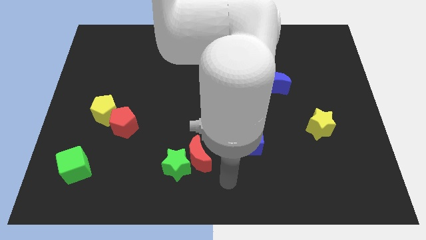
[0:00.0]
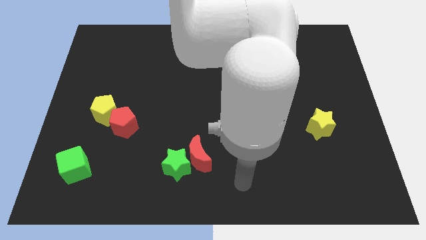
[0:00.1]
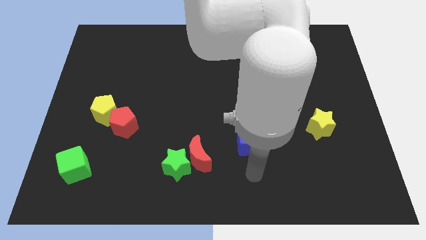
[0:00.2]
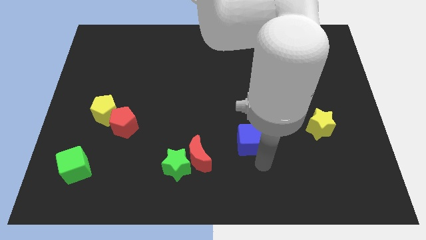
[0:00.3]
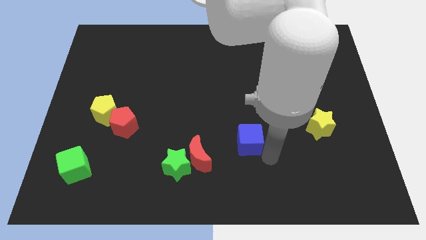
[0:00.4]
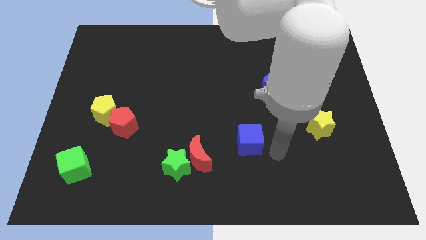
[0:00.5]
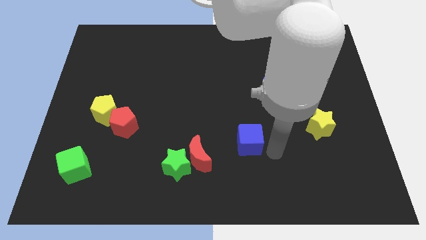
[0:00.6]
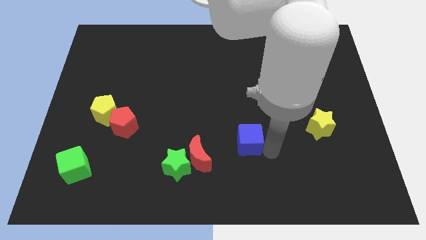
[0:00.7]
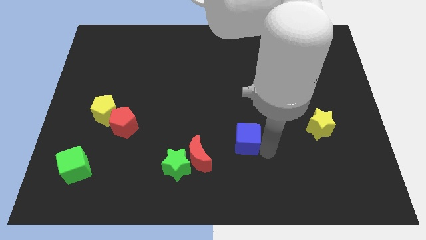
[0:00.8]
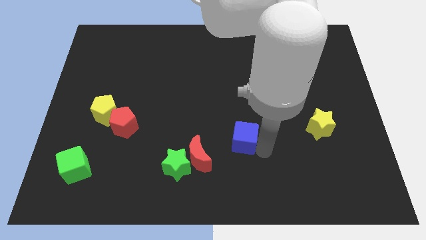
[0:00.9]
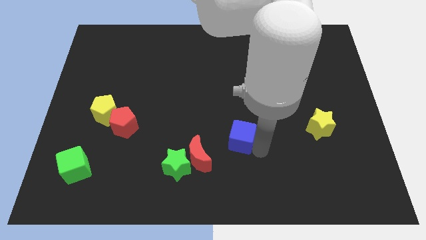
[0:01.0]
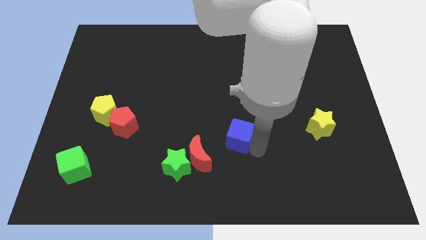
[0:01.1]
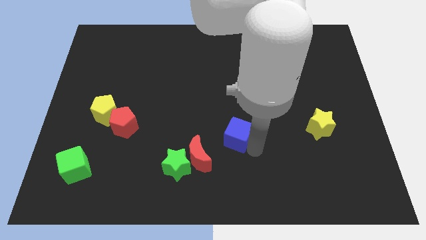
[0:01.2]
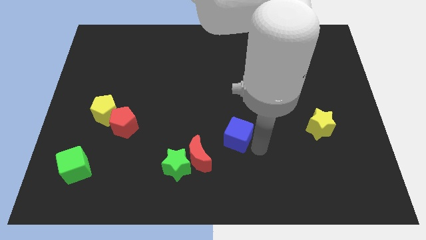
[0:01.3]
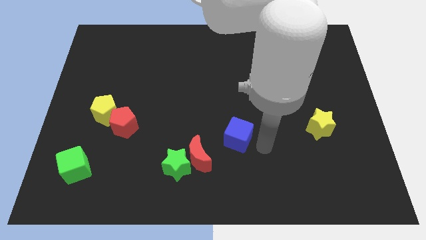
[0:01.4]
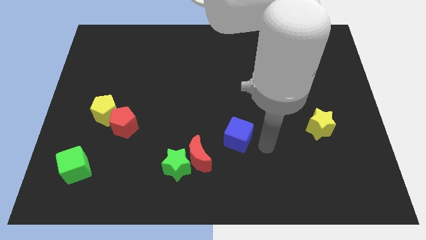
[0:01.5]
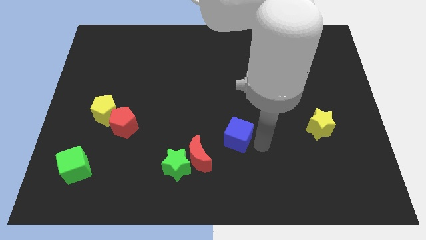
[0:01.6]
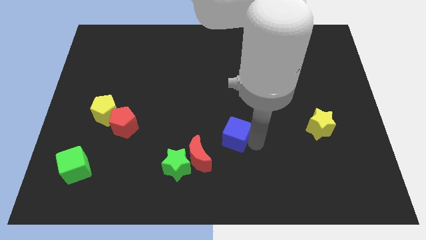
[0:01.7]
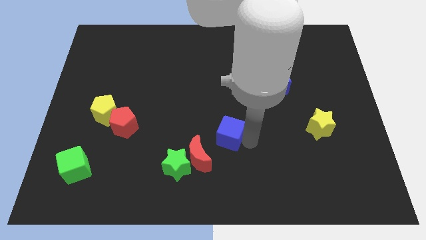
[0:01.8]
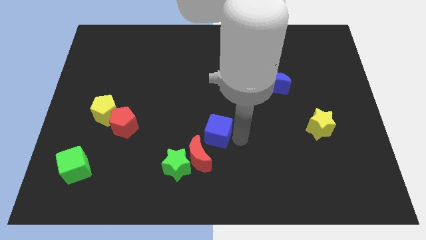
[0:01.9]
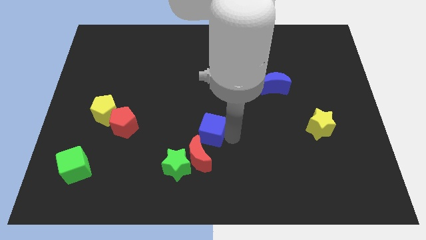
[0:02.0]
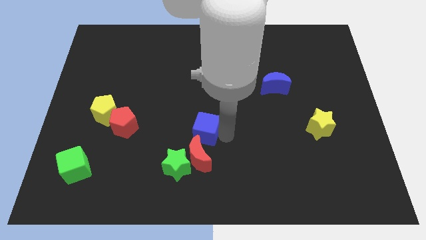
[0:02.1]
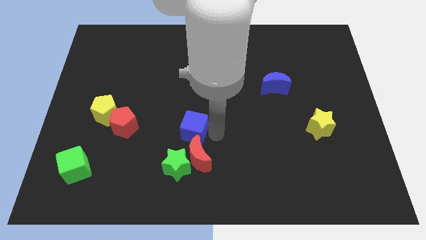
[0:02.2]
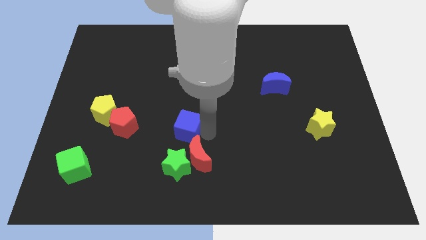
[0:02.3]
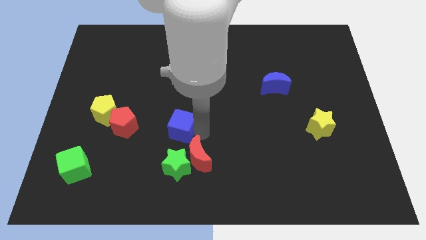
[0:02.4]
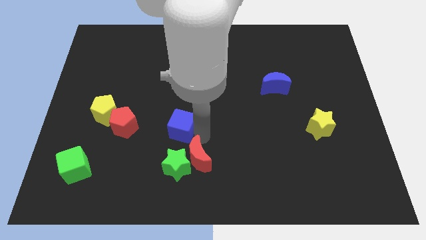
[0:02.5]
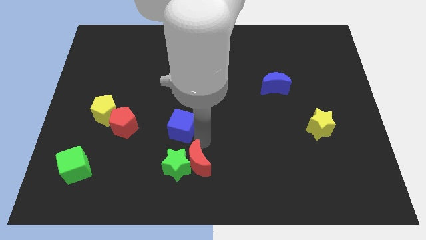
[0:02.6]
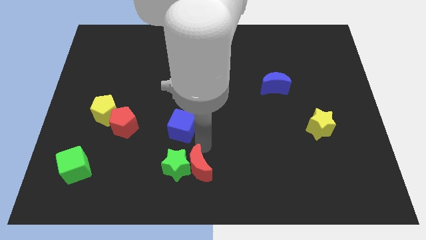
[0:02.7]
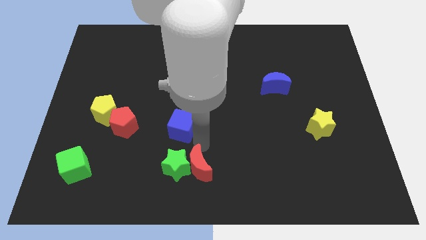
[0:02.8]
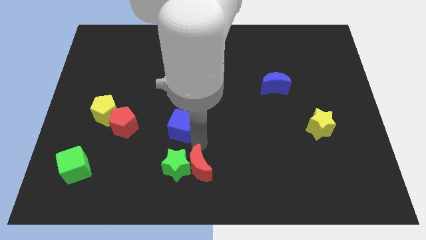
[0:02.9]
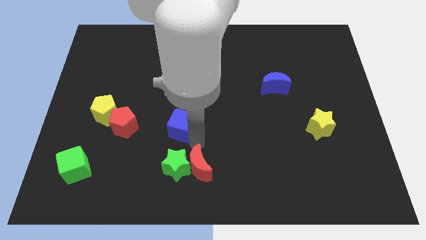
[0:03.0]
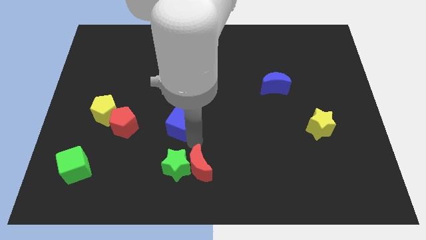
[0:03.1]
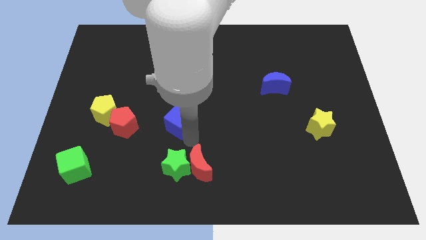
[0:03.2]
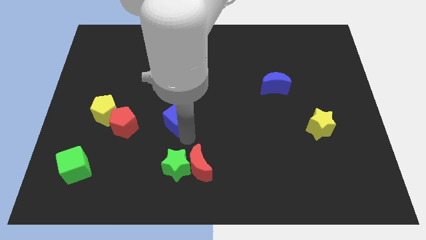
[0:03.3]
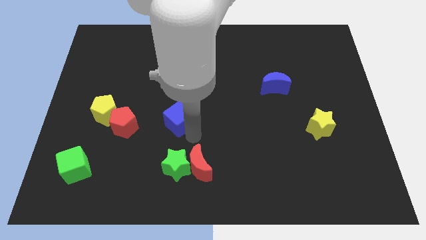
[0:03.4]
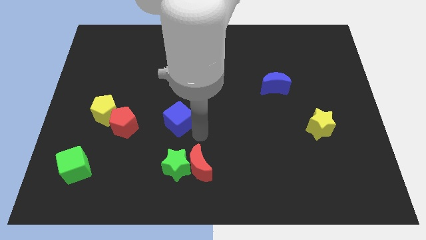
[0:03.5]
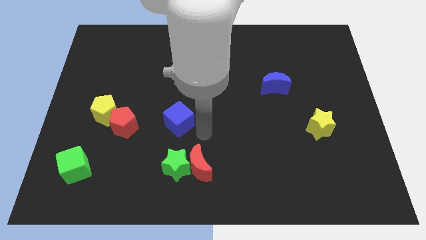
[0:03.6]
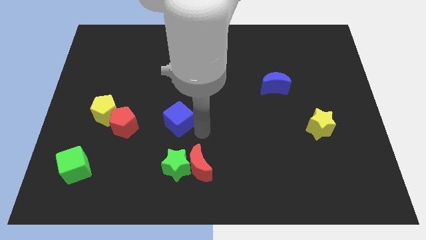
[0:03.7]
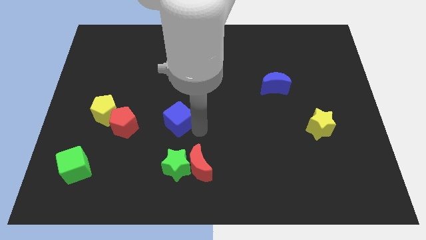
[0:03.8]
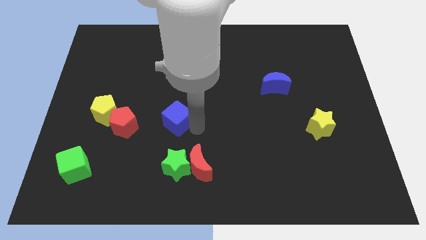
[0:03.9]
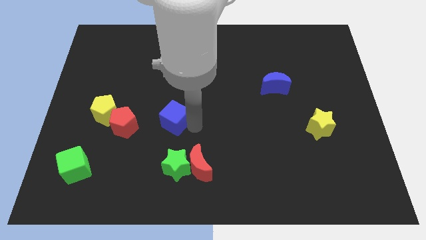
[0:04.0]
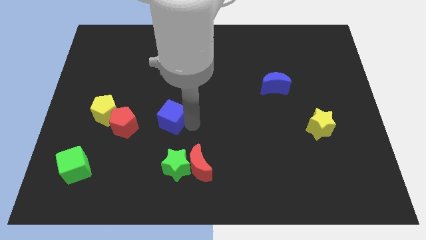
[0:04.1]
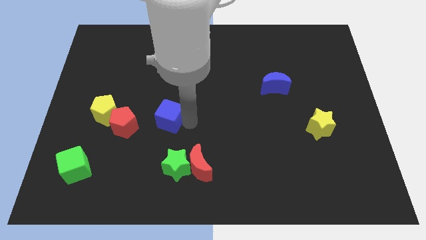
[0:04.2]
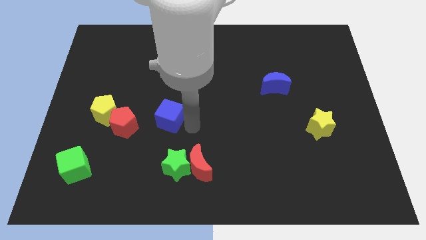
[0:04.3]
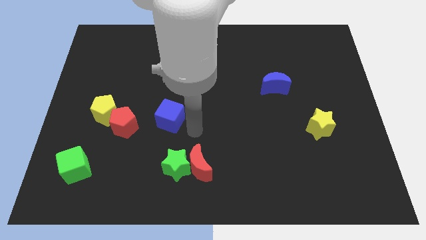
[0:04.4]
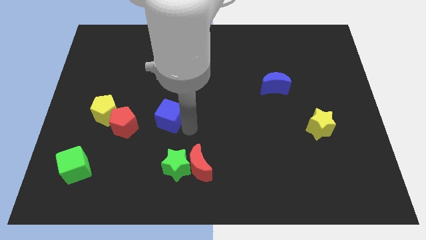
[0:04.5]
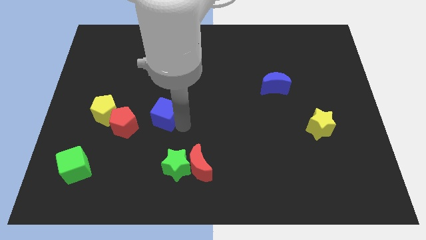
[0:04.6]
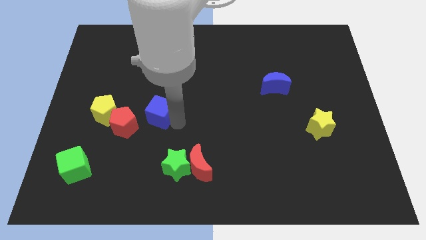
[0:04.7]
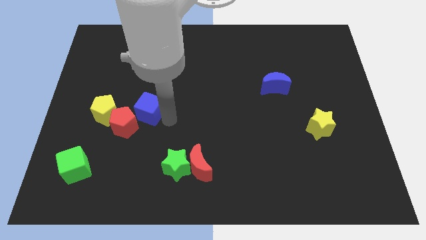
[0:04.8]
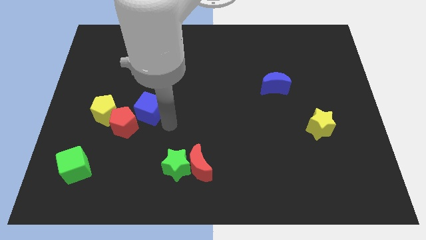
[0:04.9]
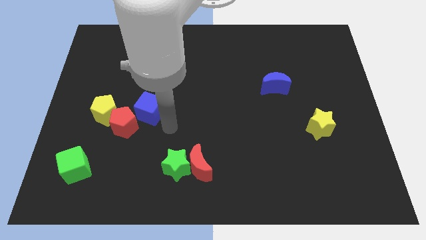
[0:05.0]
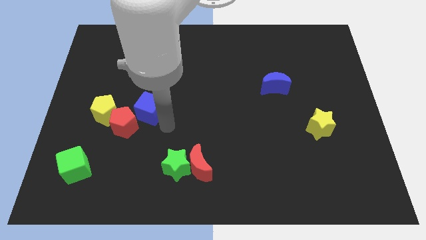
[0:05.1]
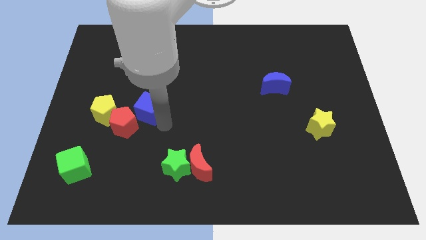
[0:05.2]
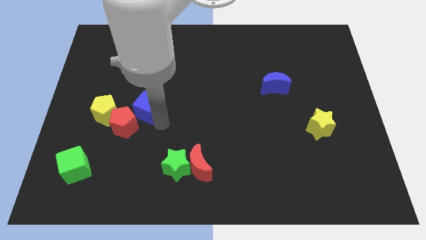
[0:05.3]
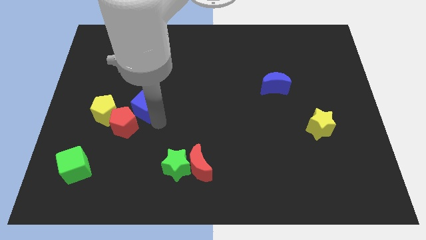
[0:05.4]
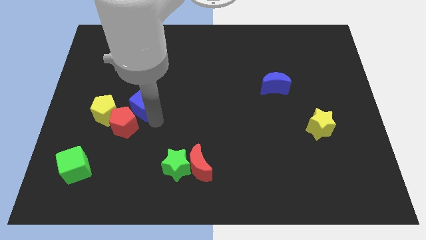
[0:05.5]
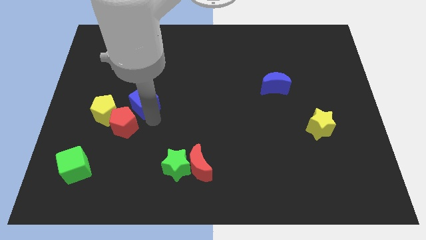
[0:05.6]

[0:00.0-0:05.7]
push the blue cube diagonally up and to the right of the yellow pentagon

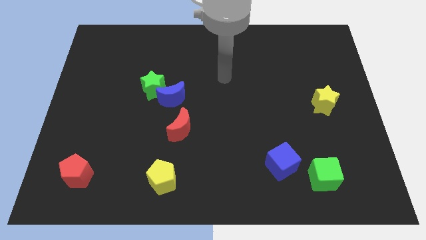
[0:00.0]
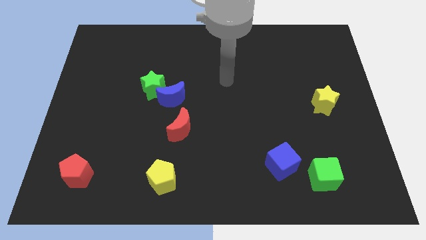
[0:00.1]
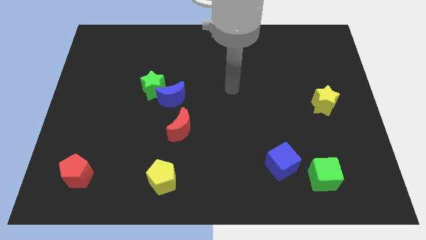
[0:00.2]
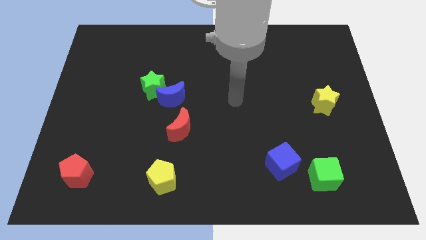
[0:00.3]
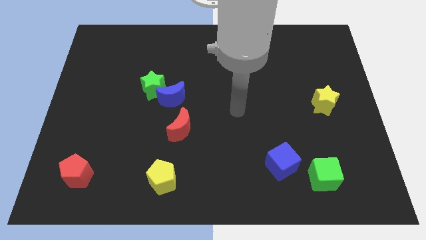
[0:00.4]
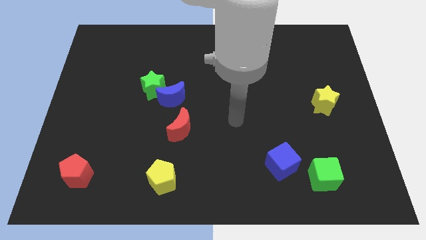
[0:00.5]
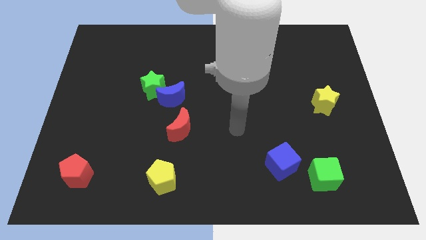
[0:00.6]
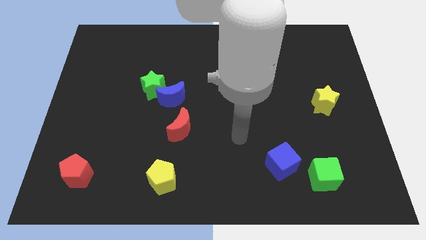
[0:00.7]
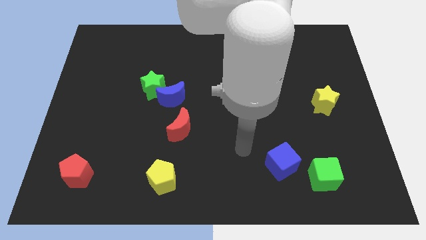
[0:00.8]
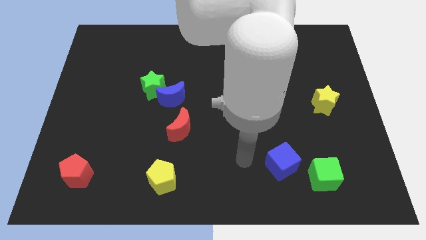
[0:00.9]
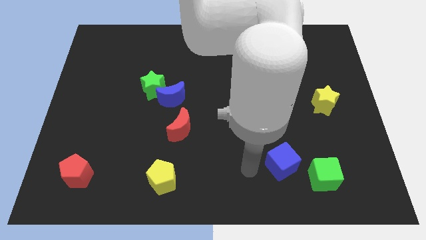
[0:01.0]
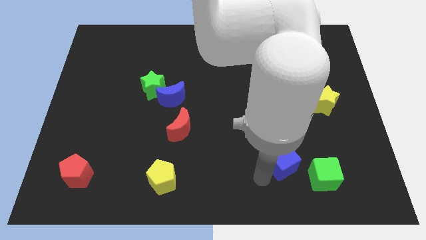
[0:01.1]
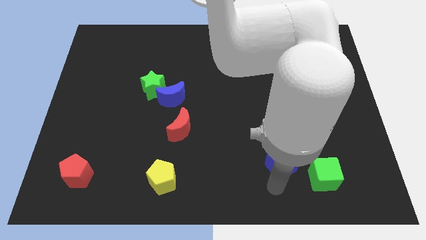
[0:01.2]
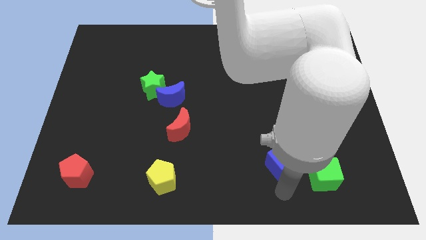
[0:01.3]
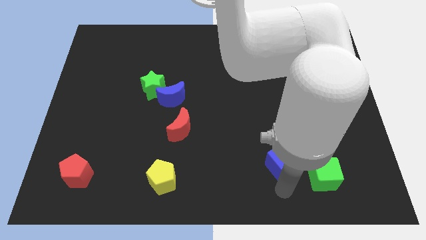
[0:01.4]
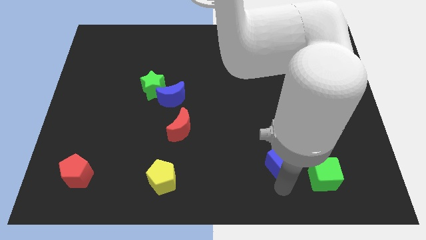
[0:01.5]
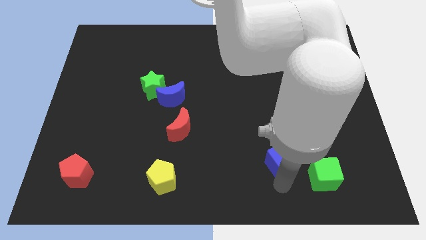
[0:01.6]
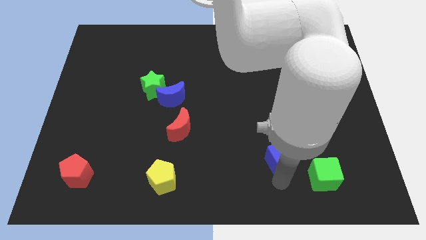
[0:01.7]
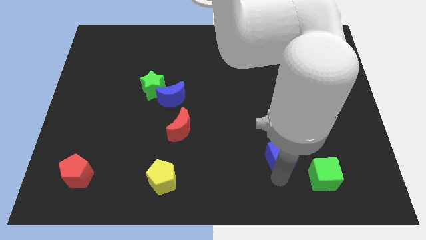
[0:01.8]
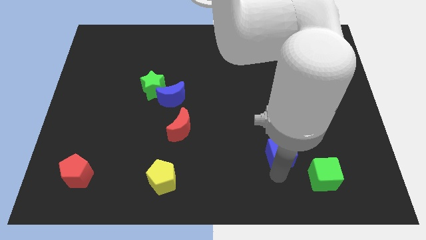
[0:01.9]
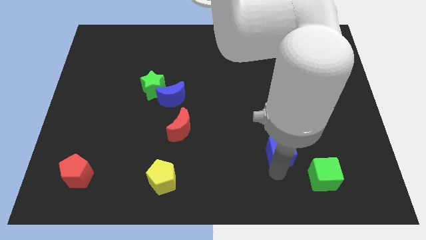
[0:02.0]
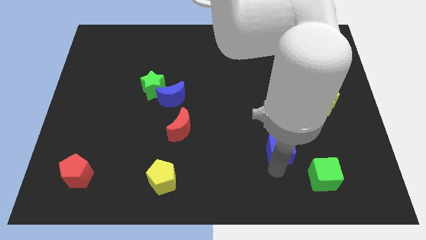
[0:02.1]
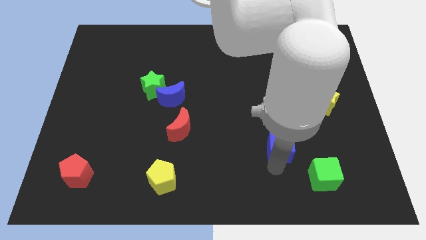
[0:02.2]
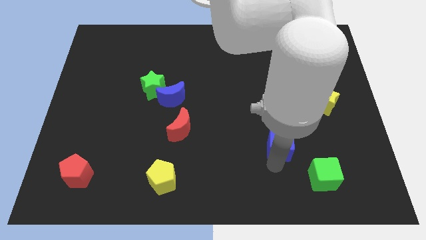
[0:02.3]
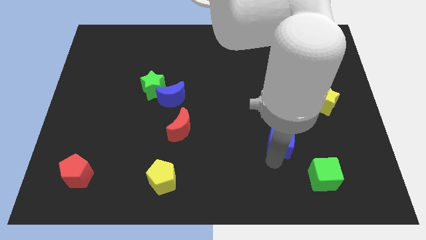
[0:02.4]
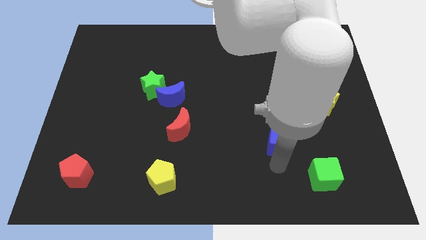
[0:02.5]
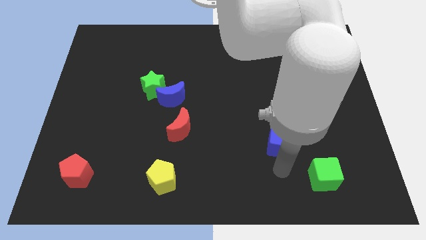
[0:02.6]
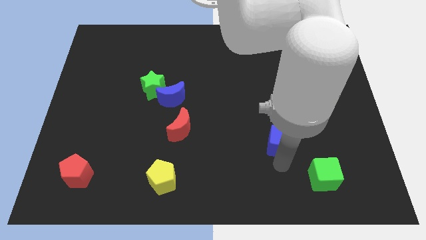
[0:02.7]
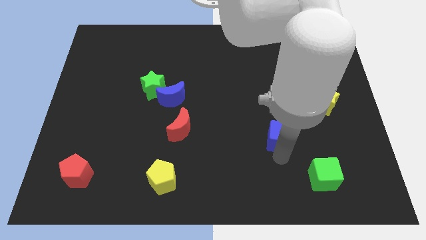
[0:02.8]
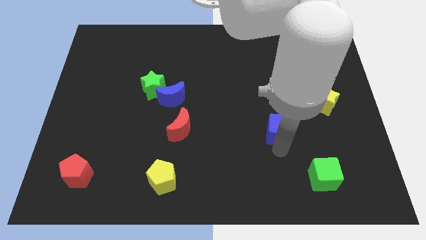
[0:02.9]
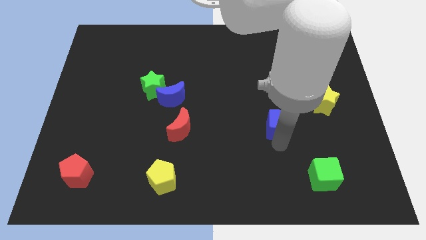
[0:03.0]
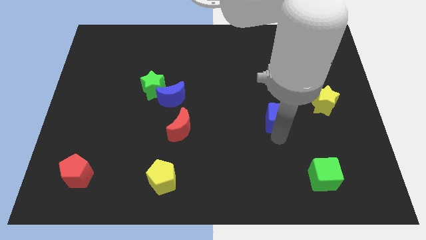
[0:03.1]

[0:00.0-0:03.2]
push the blue cube to the left side of the yellow star
